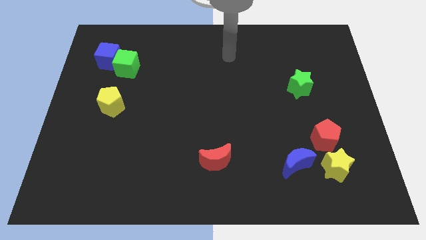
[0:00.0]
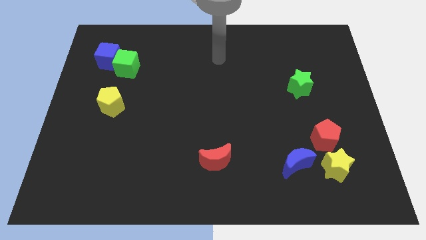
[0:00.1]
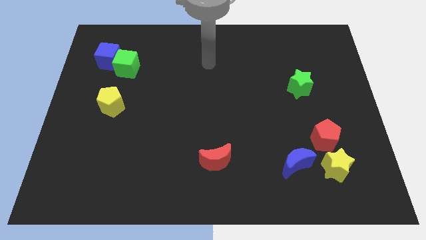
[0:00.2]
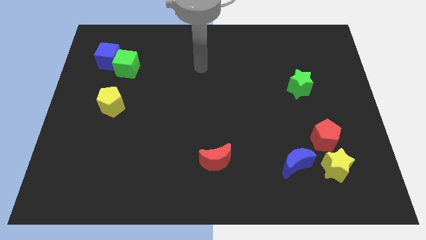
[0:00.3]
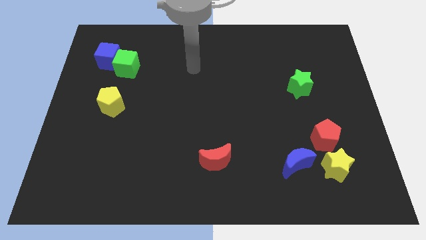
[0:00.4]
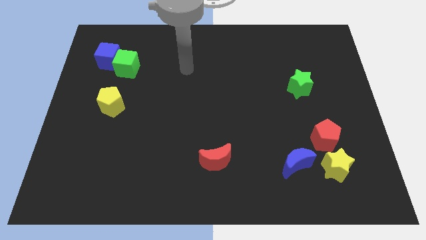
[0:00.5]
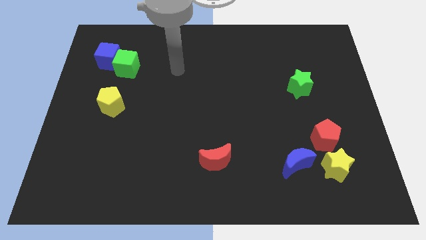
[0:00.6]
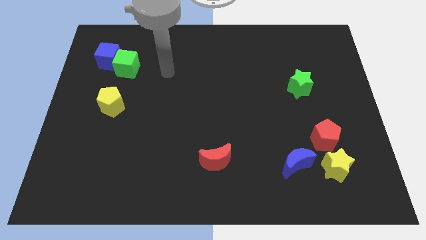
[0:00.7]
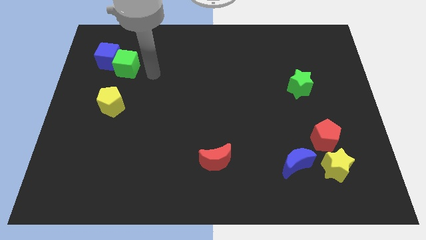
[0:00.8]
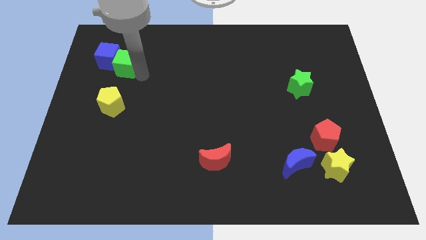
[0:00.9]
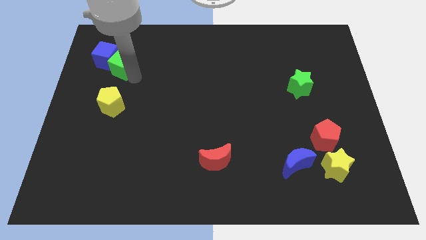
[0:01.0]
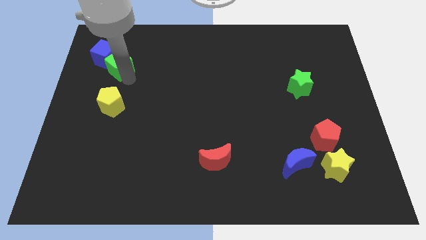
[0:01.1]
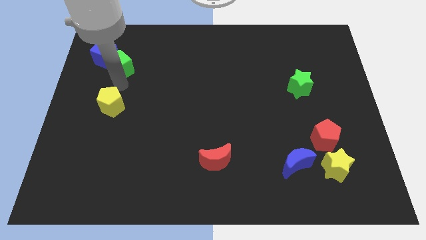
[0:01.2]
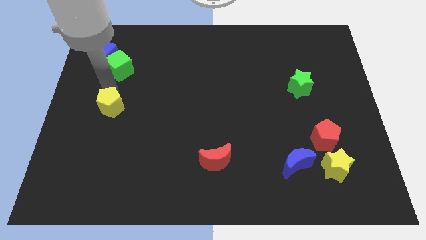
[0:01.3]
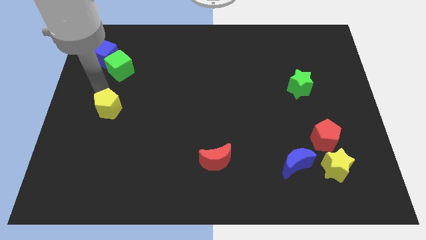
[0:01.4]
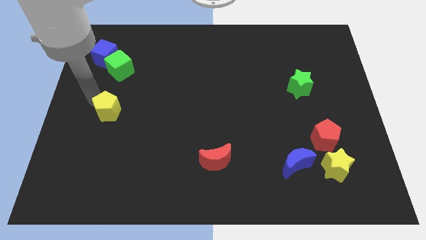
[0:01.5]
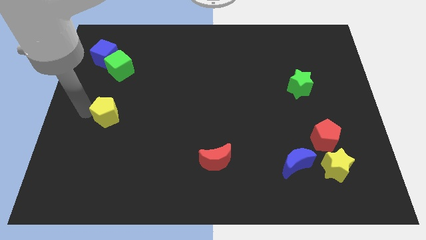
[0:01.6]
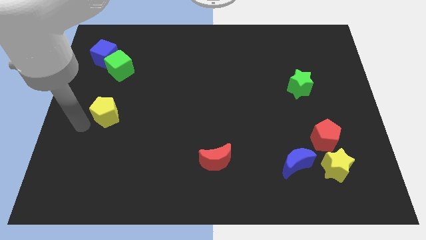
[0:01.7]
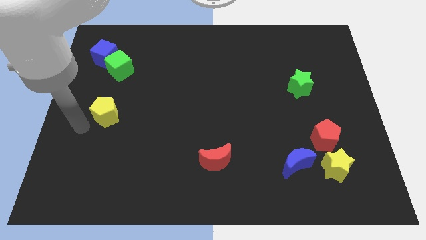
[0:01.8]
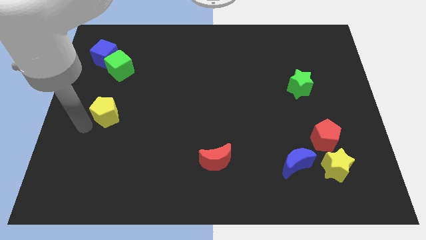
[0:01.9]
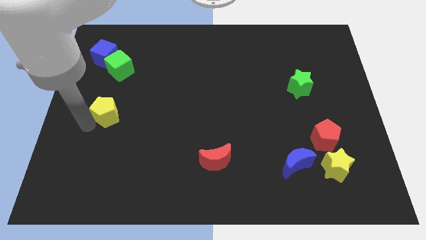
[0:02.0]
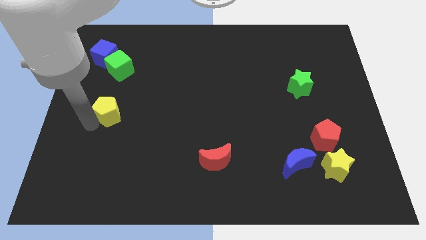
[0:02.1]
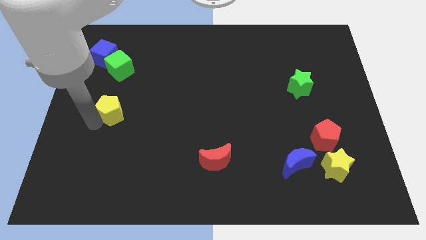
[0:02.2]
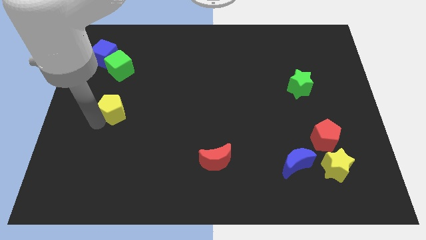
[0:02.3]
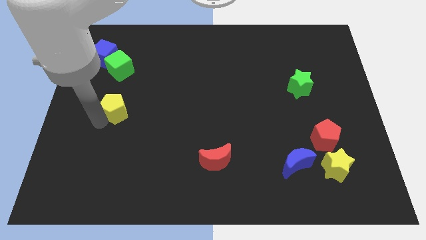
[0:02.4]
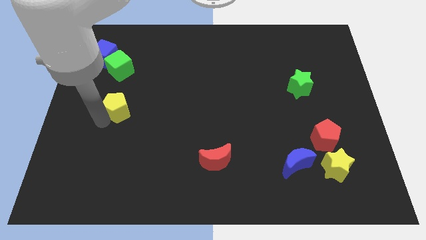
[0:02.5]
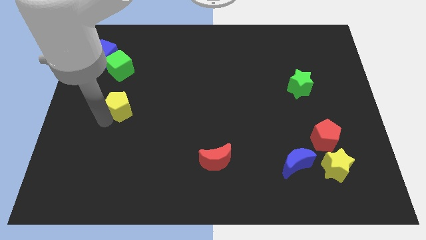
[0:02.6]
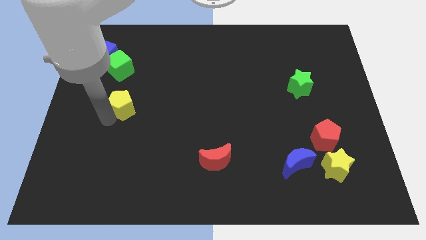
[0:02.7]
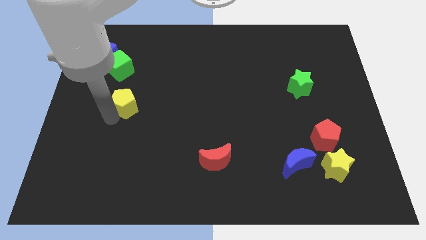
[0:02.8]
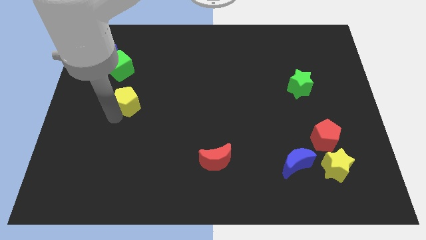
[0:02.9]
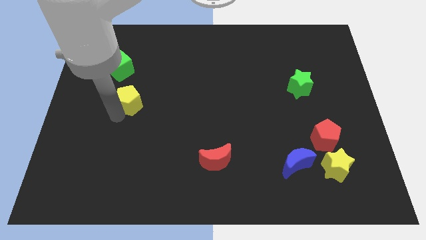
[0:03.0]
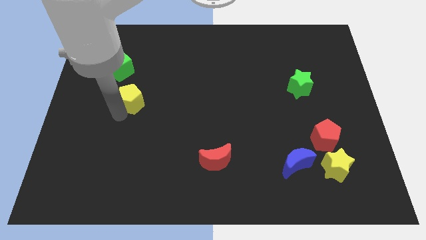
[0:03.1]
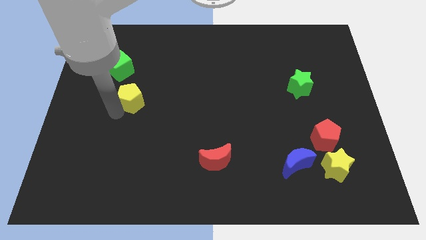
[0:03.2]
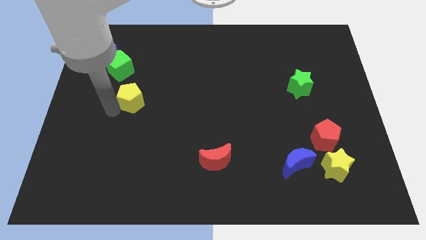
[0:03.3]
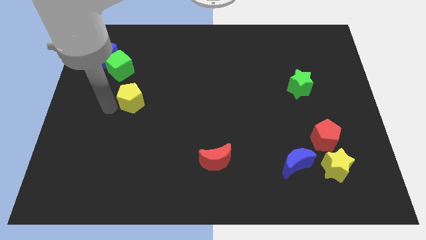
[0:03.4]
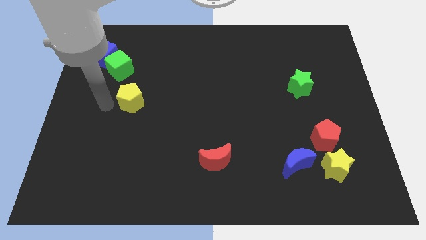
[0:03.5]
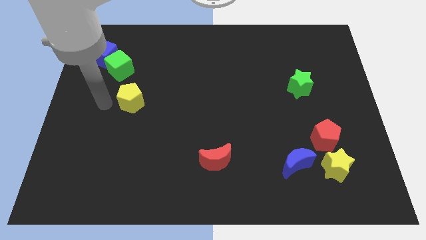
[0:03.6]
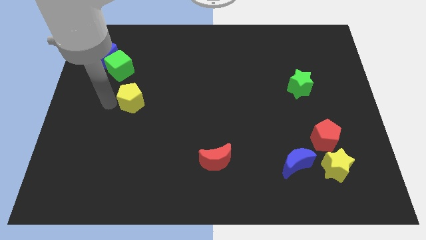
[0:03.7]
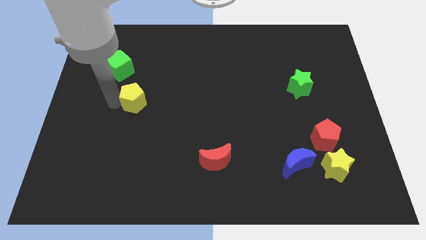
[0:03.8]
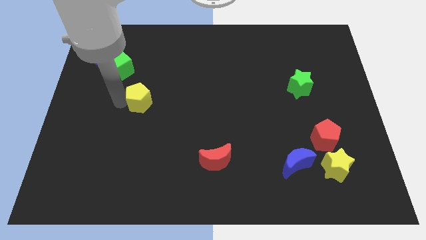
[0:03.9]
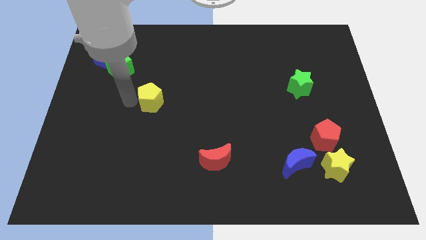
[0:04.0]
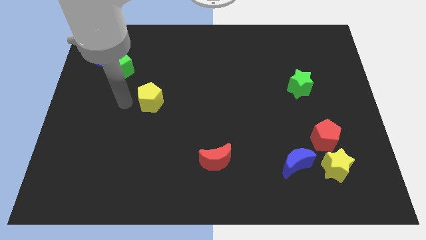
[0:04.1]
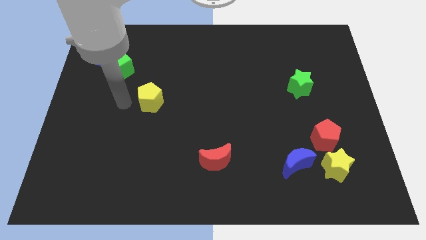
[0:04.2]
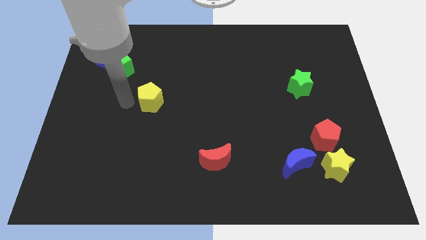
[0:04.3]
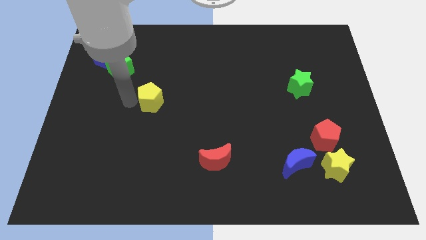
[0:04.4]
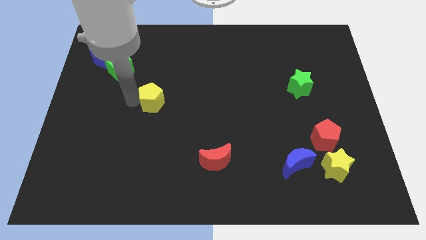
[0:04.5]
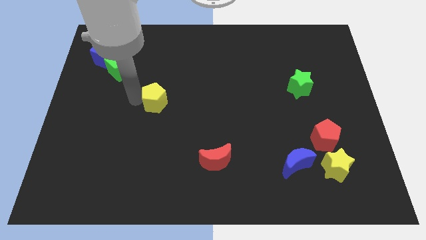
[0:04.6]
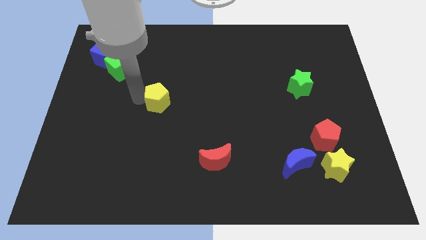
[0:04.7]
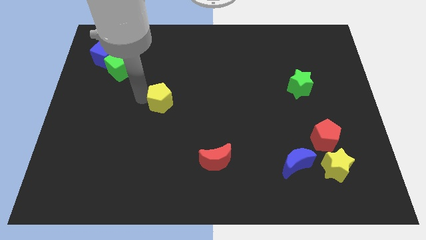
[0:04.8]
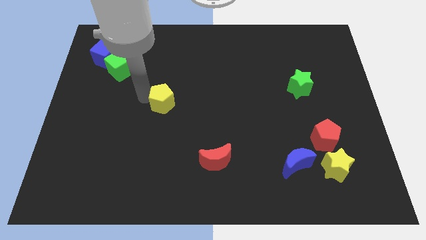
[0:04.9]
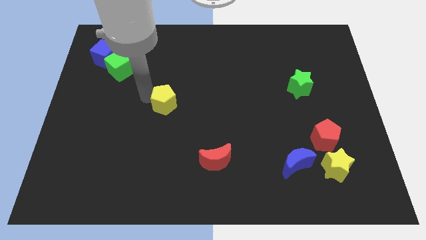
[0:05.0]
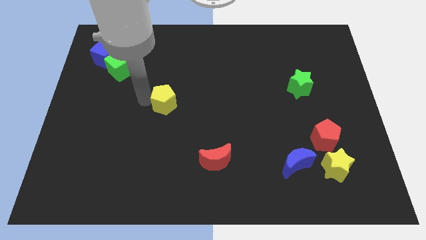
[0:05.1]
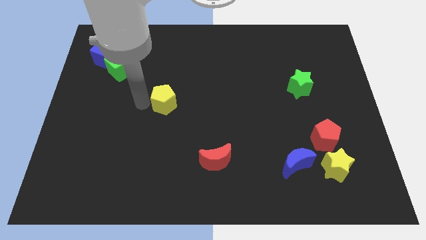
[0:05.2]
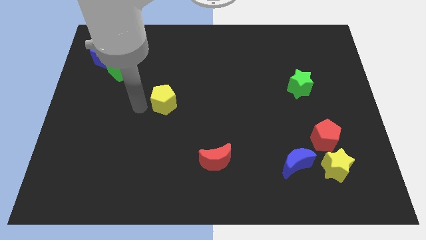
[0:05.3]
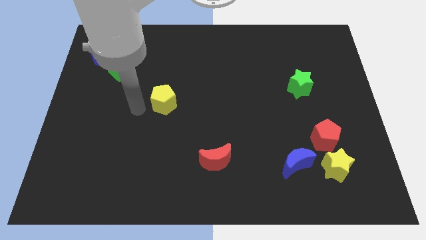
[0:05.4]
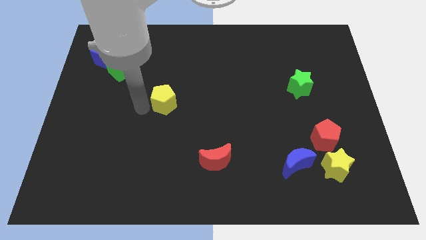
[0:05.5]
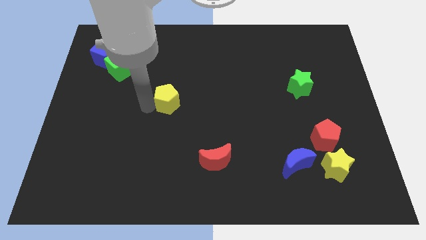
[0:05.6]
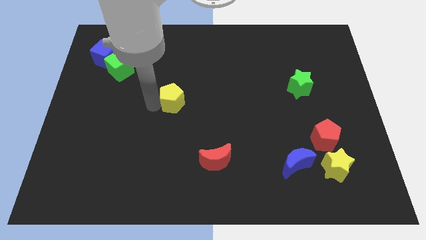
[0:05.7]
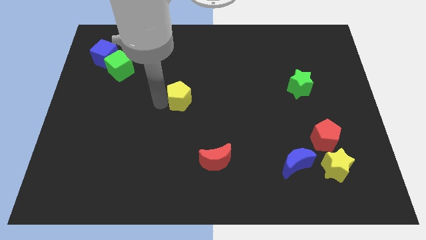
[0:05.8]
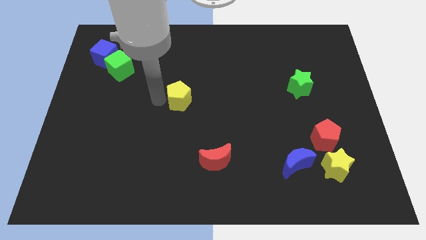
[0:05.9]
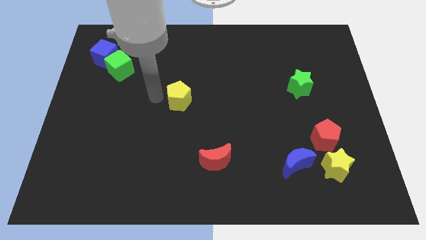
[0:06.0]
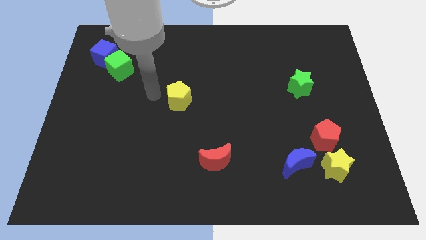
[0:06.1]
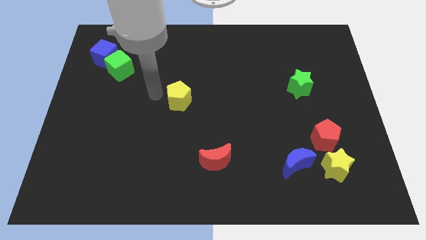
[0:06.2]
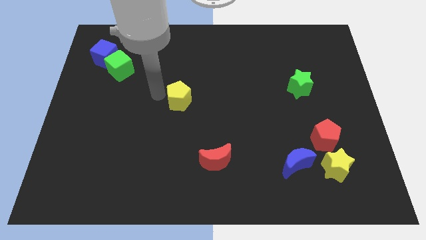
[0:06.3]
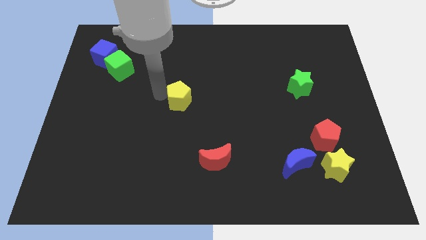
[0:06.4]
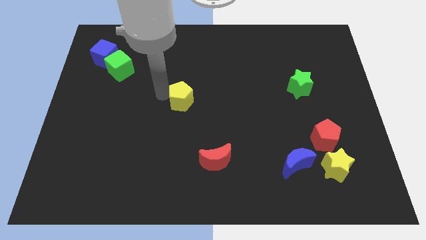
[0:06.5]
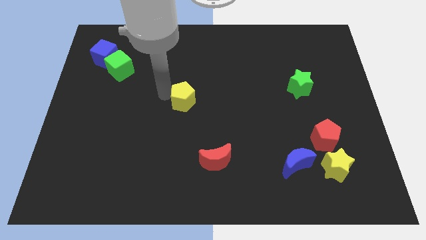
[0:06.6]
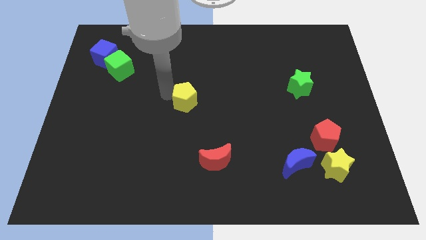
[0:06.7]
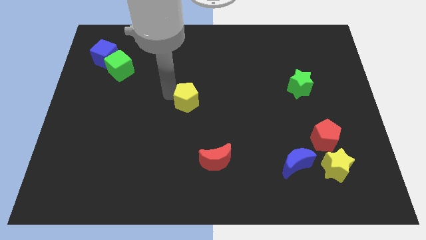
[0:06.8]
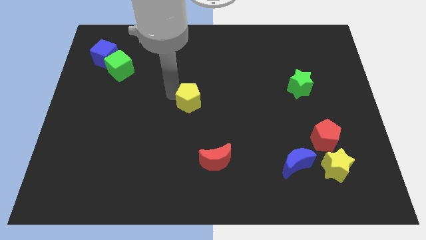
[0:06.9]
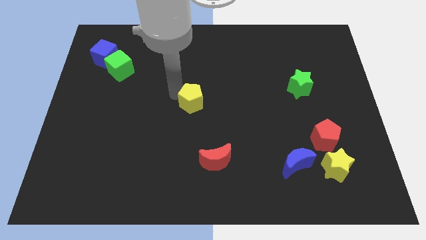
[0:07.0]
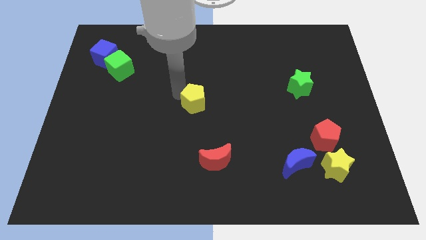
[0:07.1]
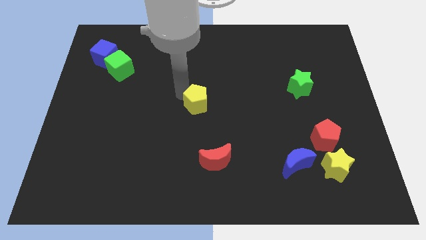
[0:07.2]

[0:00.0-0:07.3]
push the yellow pentagon to the right

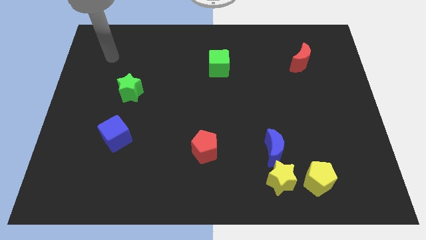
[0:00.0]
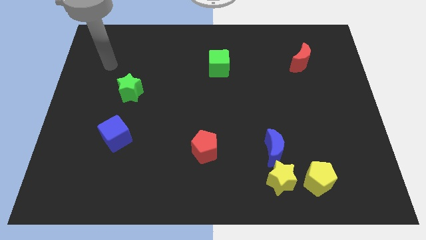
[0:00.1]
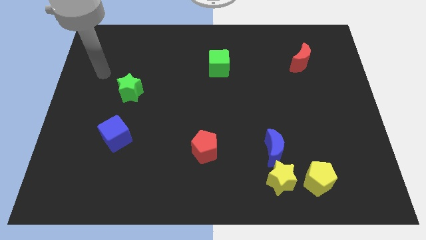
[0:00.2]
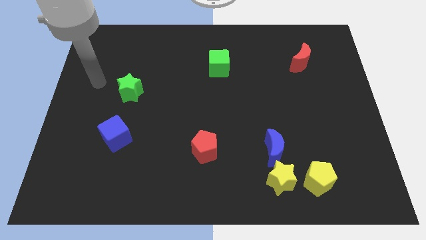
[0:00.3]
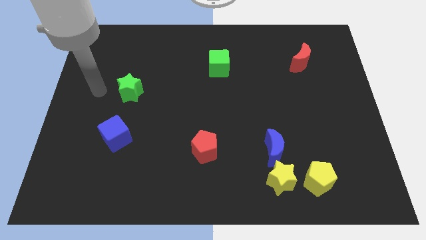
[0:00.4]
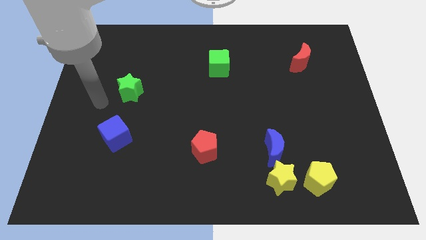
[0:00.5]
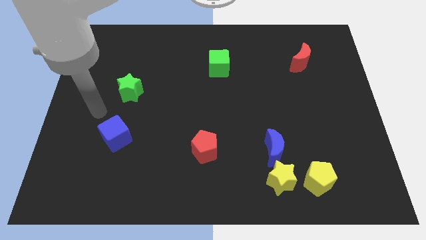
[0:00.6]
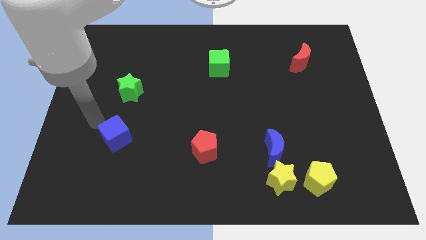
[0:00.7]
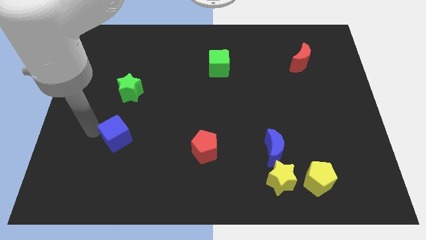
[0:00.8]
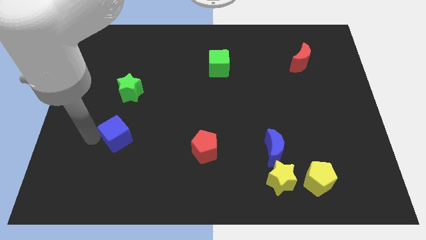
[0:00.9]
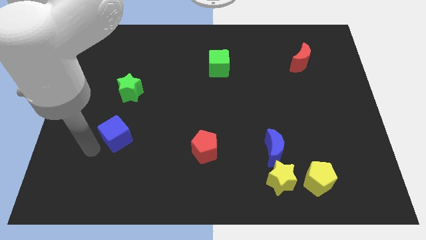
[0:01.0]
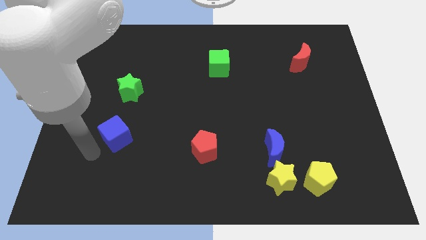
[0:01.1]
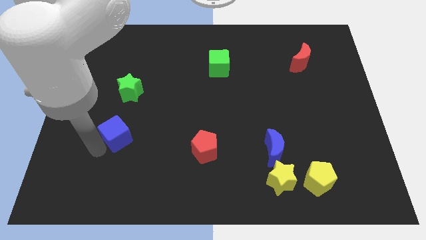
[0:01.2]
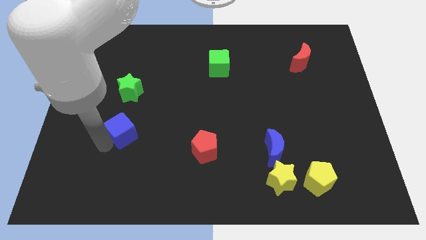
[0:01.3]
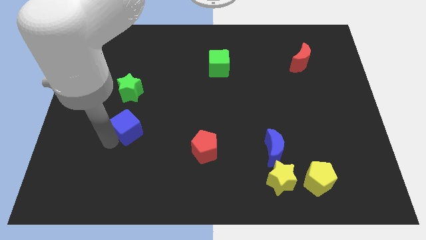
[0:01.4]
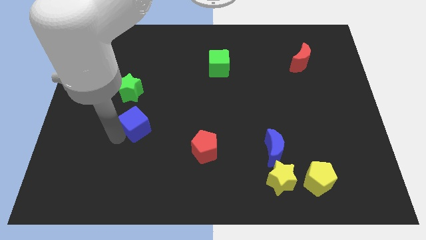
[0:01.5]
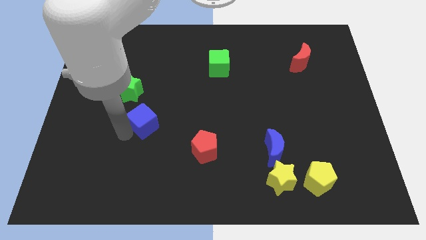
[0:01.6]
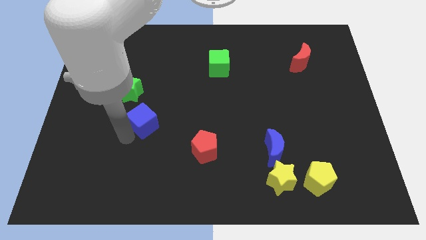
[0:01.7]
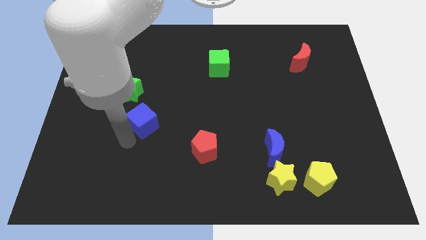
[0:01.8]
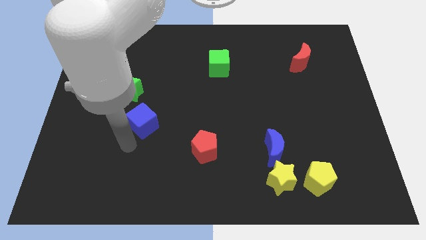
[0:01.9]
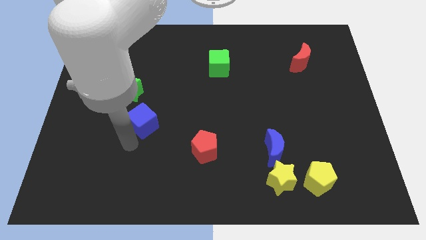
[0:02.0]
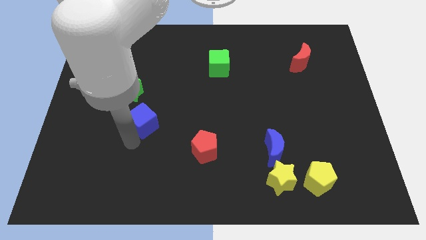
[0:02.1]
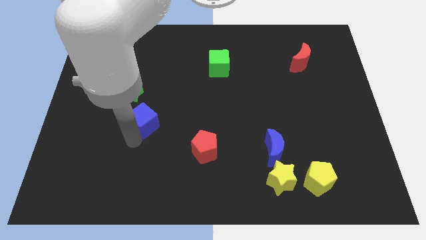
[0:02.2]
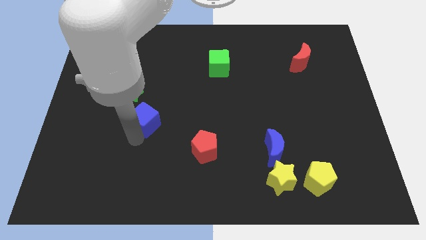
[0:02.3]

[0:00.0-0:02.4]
slightly move the blue cube diagonally upwards and to the right
